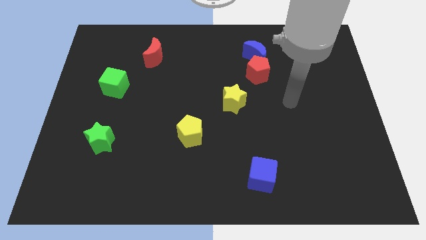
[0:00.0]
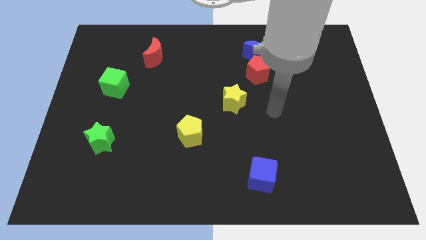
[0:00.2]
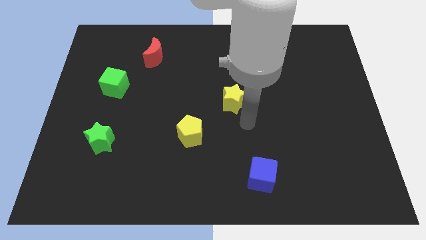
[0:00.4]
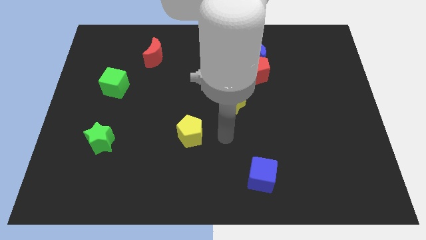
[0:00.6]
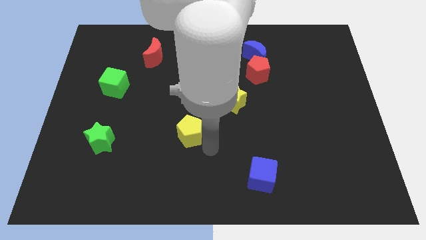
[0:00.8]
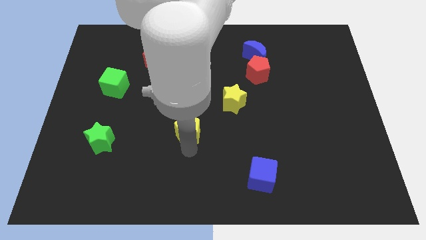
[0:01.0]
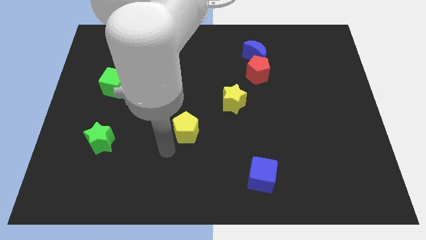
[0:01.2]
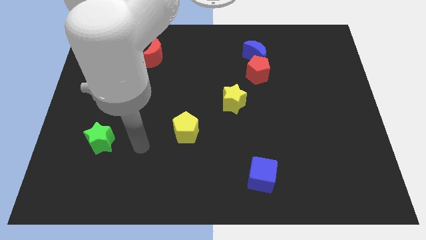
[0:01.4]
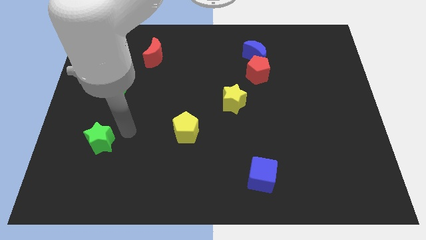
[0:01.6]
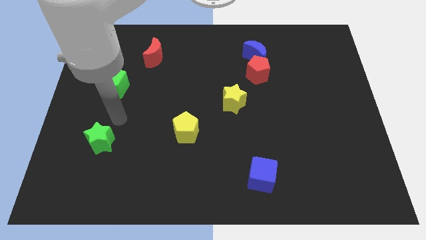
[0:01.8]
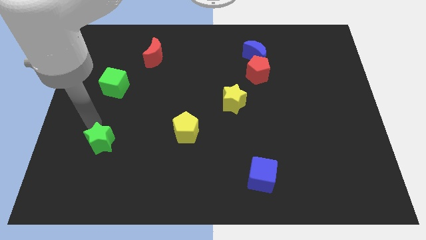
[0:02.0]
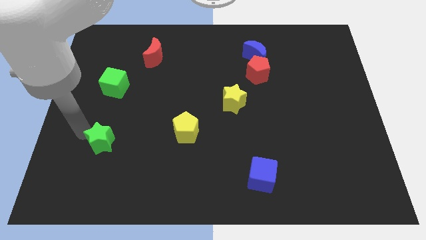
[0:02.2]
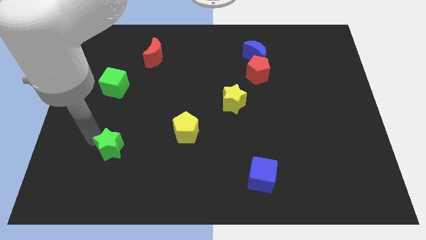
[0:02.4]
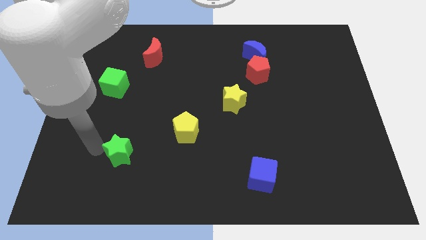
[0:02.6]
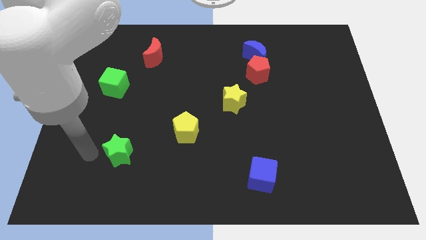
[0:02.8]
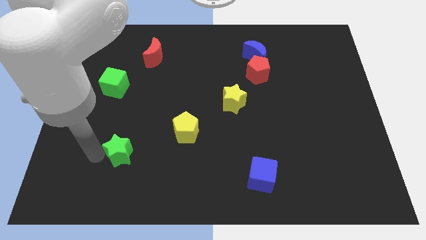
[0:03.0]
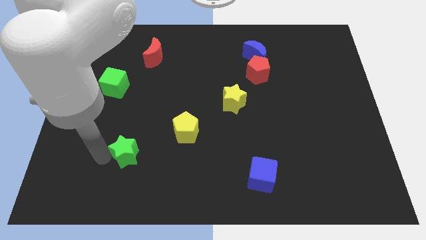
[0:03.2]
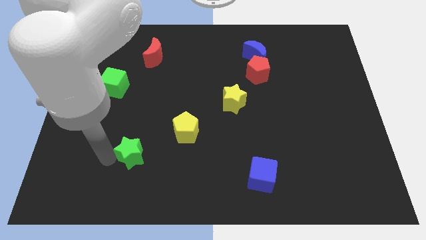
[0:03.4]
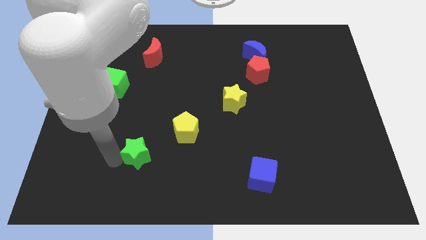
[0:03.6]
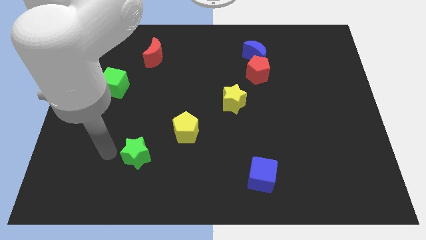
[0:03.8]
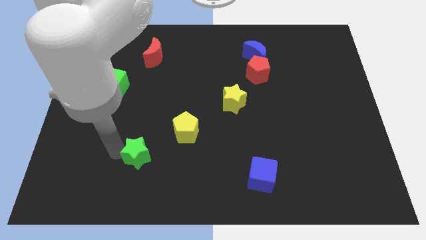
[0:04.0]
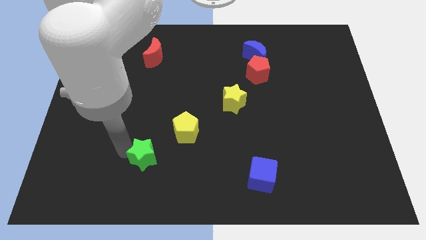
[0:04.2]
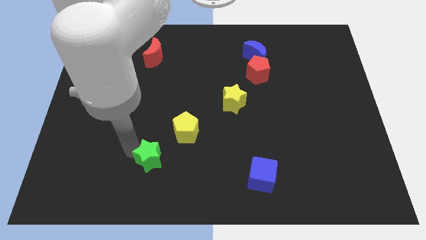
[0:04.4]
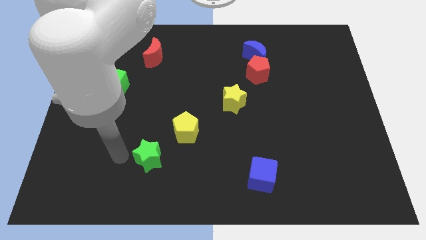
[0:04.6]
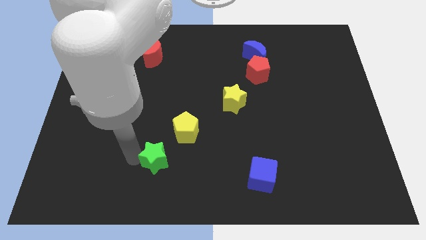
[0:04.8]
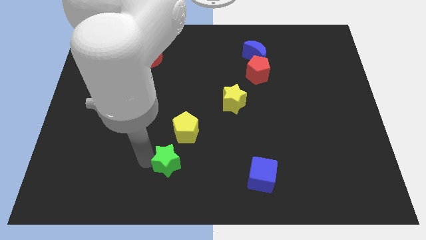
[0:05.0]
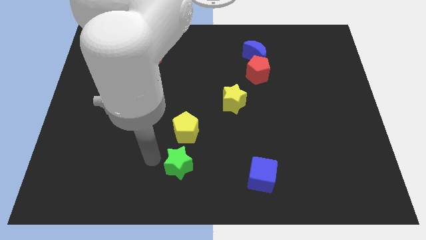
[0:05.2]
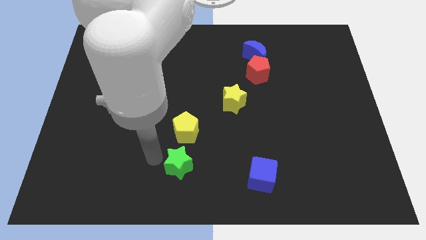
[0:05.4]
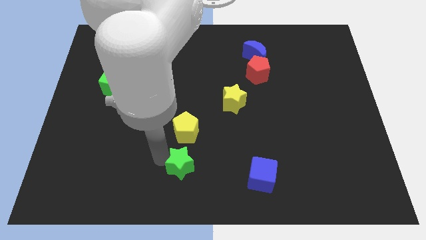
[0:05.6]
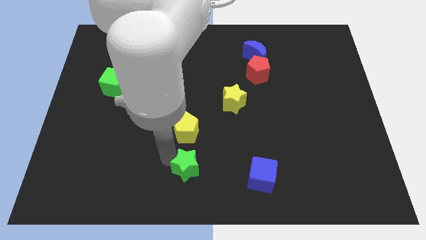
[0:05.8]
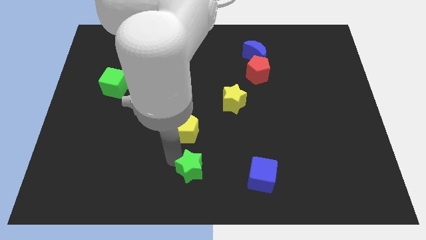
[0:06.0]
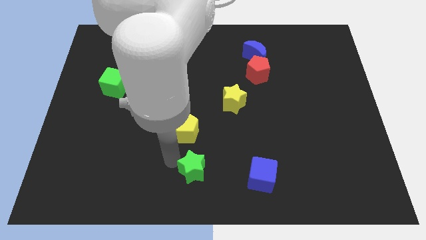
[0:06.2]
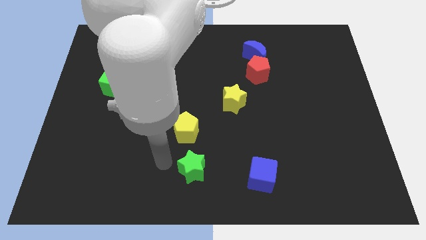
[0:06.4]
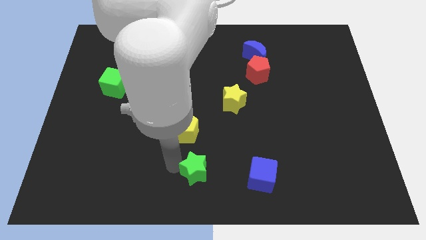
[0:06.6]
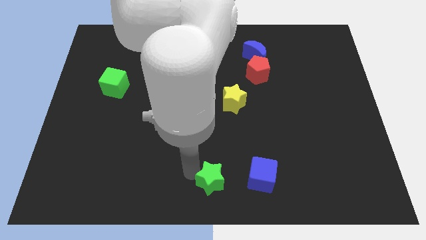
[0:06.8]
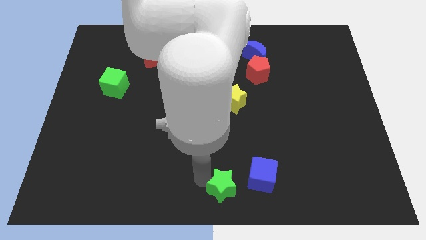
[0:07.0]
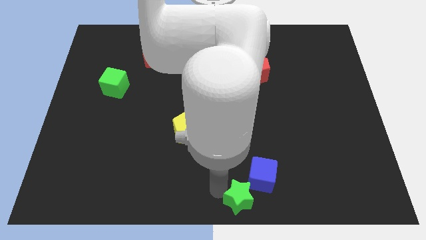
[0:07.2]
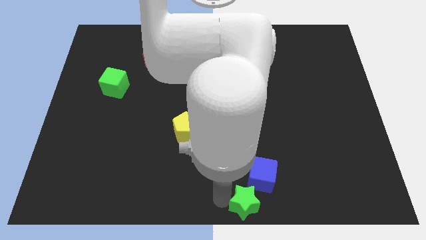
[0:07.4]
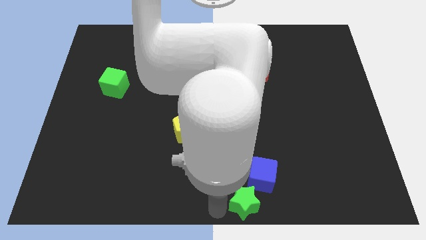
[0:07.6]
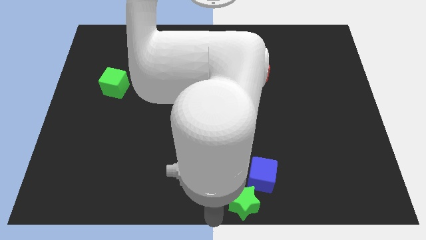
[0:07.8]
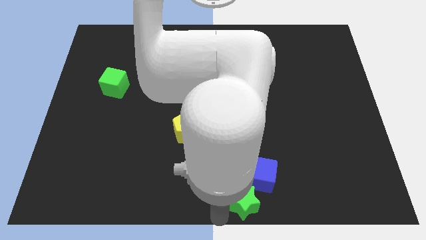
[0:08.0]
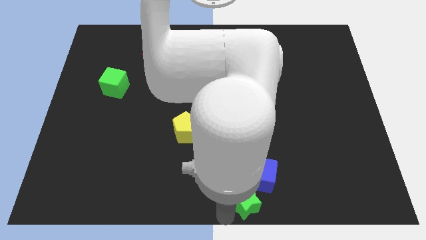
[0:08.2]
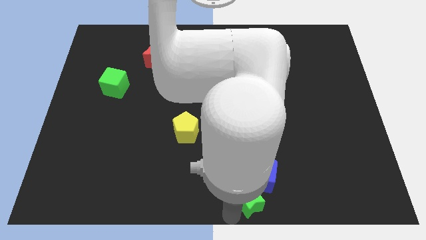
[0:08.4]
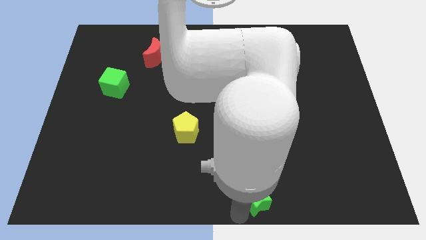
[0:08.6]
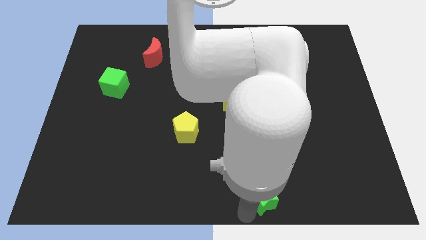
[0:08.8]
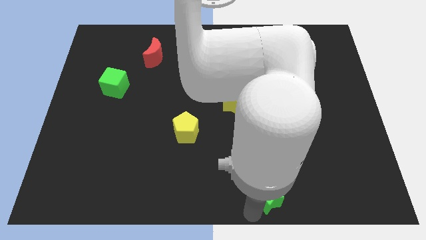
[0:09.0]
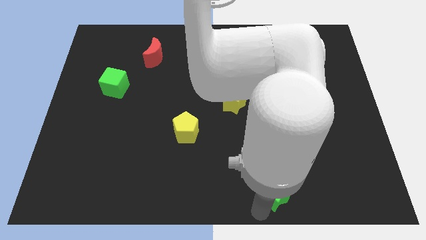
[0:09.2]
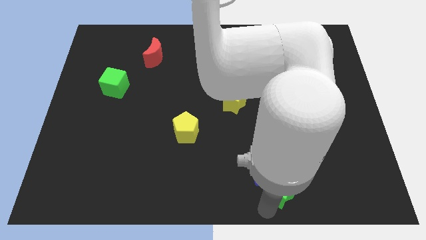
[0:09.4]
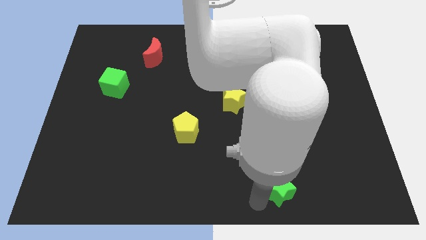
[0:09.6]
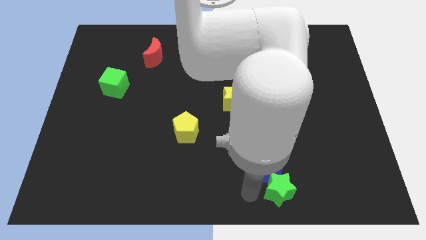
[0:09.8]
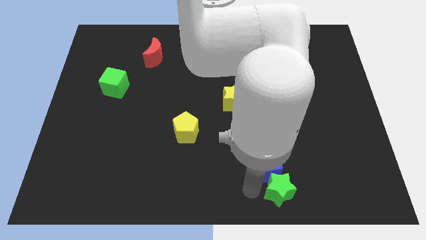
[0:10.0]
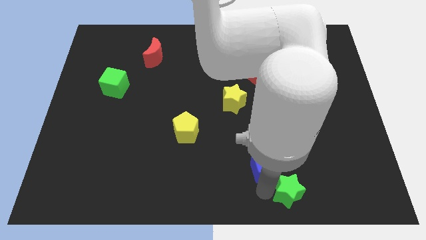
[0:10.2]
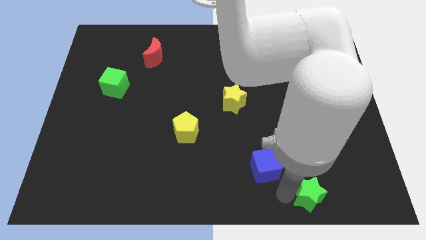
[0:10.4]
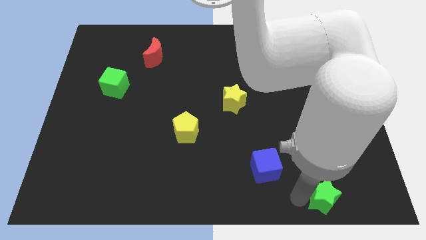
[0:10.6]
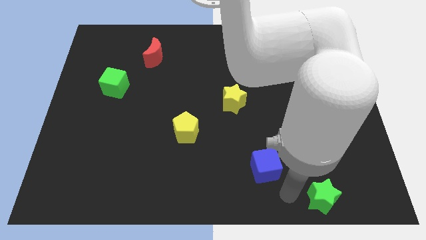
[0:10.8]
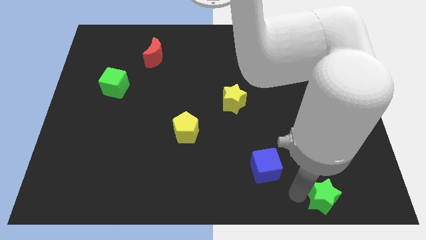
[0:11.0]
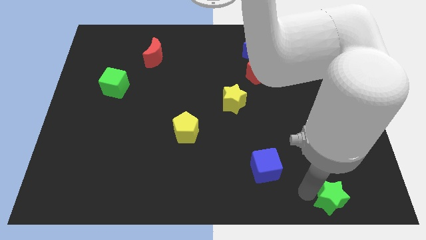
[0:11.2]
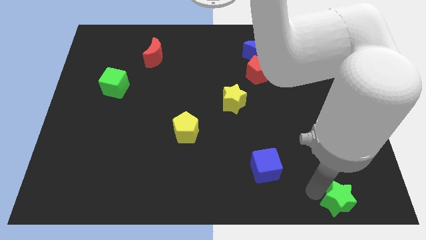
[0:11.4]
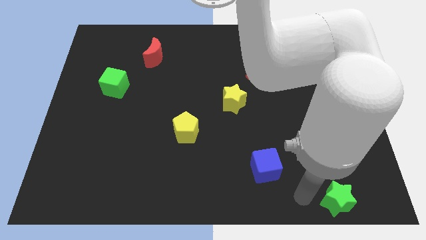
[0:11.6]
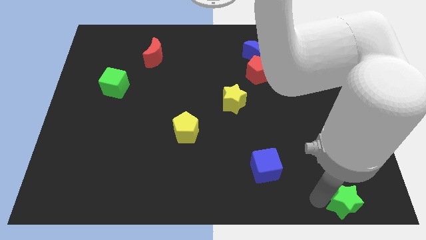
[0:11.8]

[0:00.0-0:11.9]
push the green star to the bottom right corner

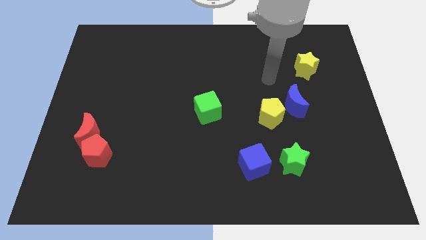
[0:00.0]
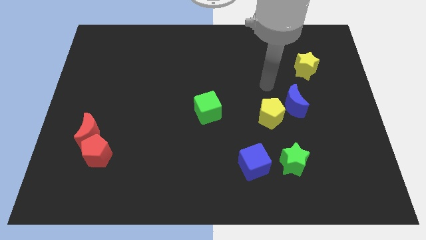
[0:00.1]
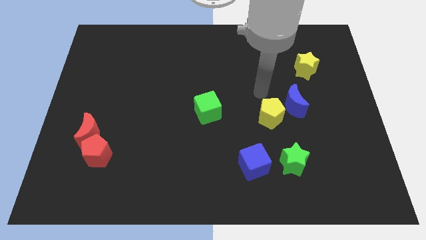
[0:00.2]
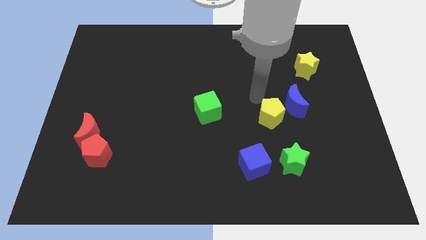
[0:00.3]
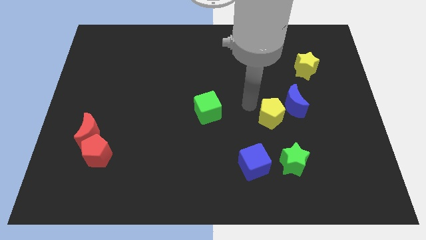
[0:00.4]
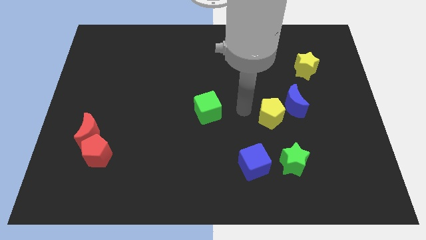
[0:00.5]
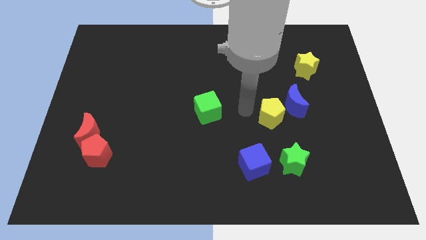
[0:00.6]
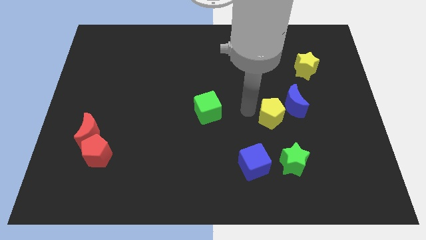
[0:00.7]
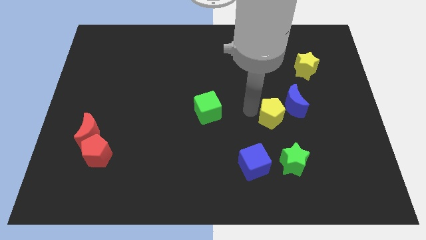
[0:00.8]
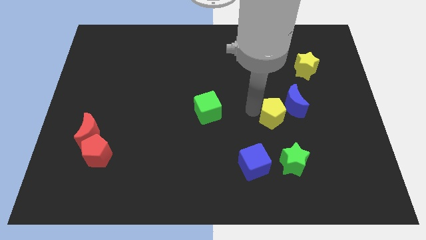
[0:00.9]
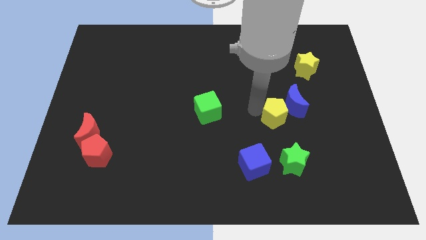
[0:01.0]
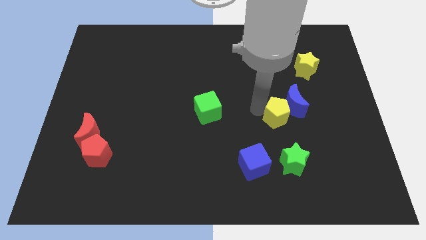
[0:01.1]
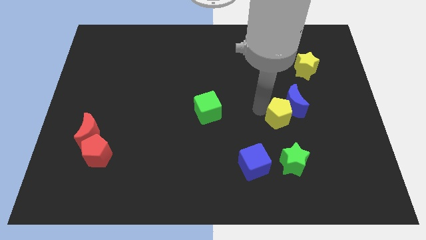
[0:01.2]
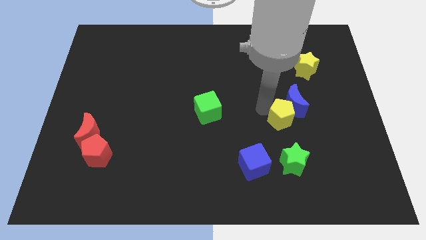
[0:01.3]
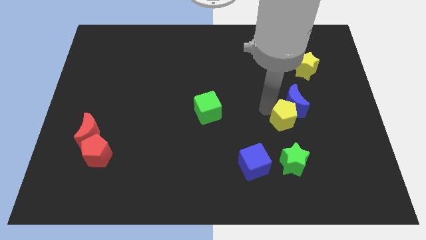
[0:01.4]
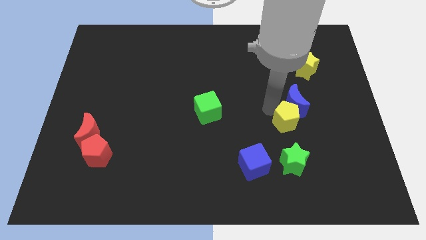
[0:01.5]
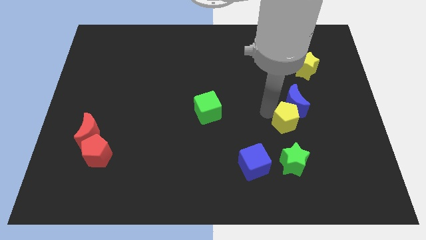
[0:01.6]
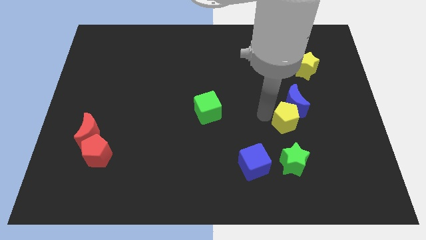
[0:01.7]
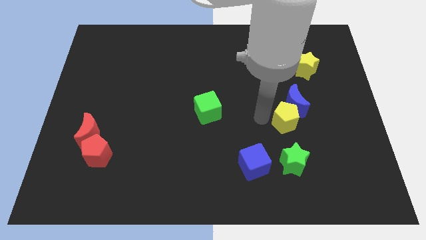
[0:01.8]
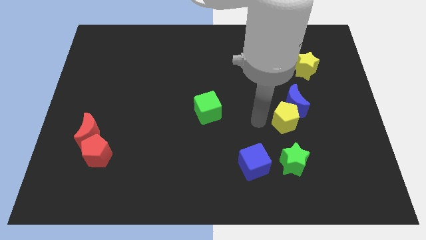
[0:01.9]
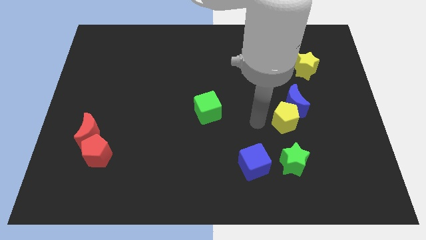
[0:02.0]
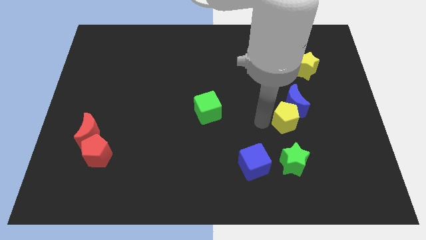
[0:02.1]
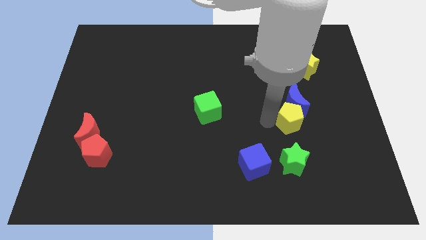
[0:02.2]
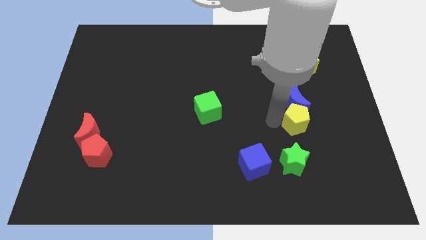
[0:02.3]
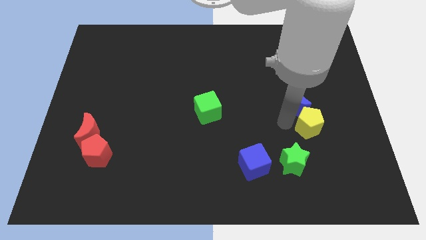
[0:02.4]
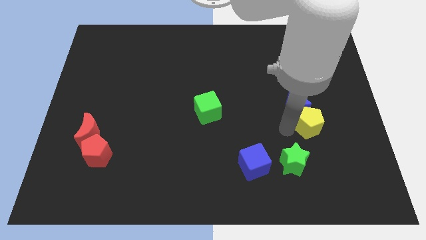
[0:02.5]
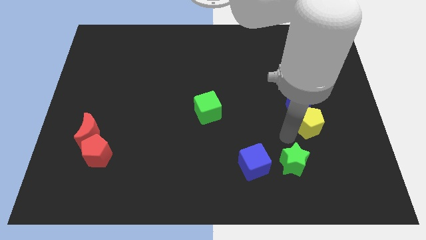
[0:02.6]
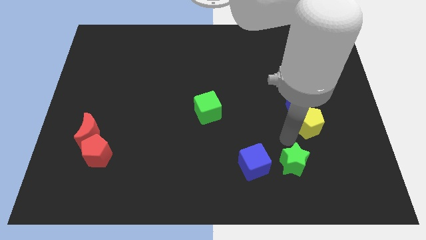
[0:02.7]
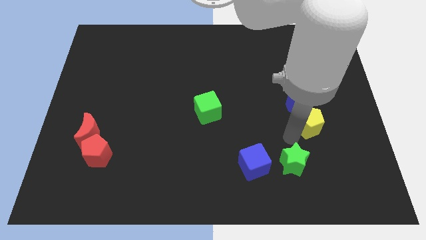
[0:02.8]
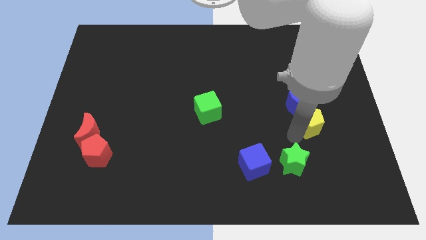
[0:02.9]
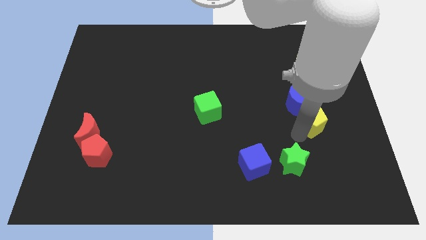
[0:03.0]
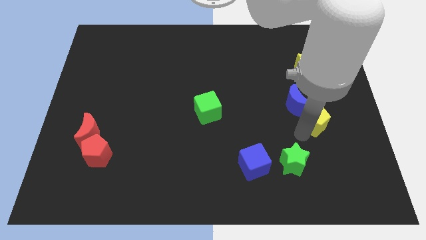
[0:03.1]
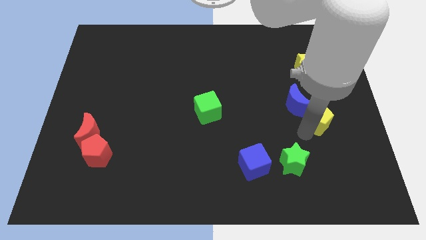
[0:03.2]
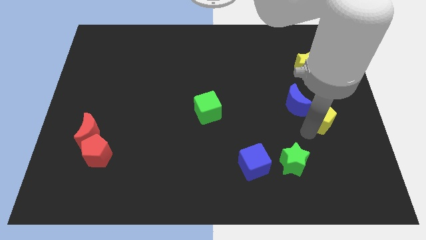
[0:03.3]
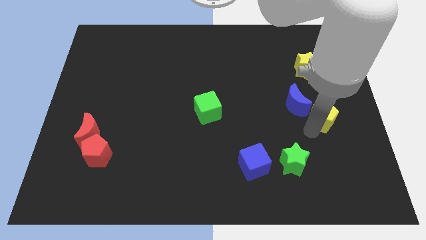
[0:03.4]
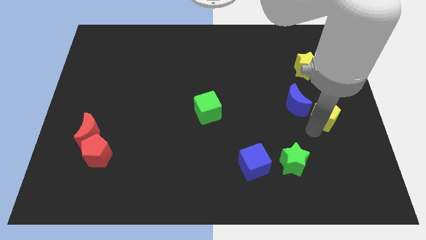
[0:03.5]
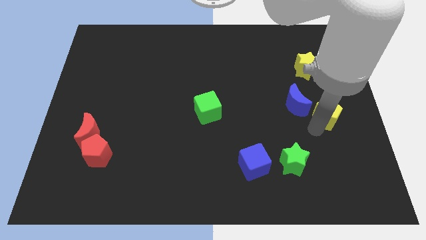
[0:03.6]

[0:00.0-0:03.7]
push the yellow pentagon to the right side of the board
